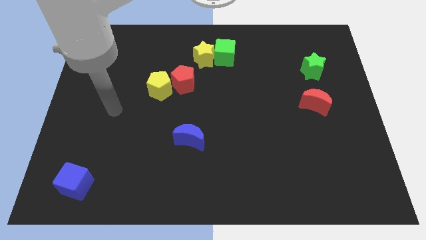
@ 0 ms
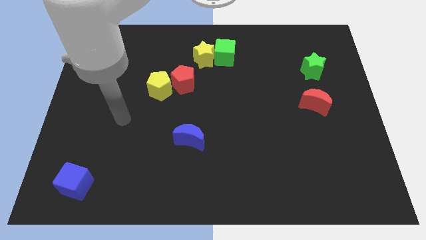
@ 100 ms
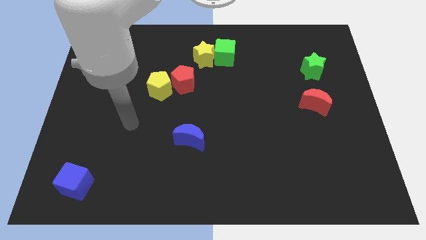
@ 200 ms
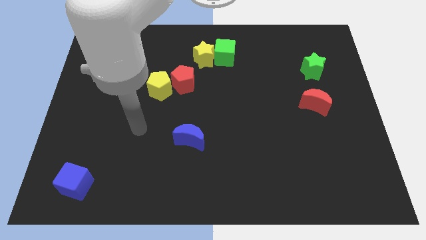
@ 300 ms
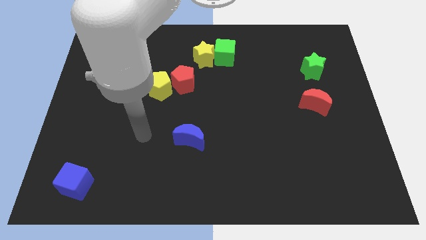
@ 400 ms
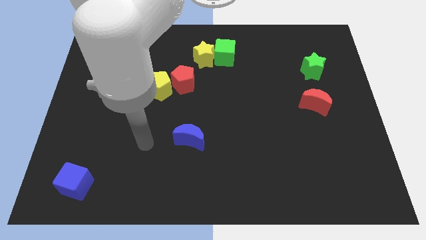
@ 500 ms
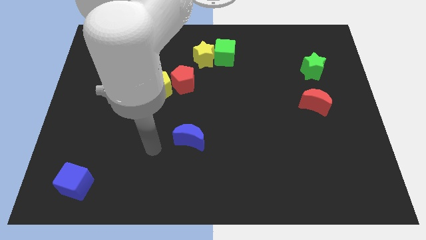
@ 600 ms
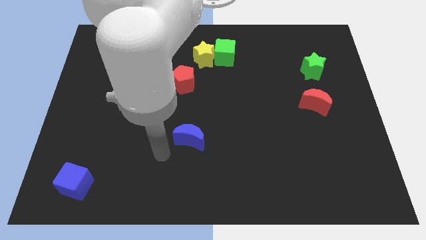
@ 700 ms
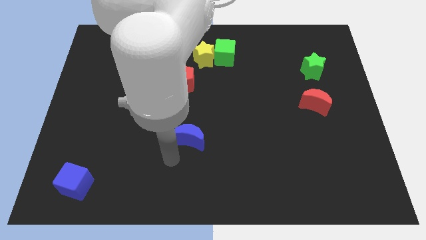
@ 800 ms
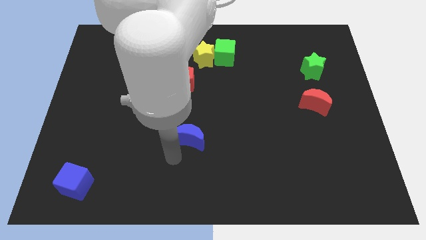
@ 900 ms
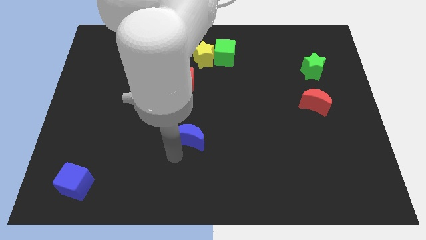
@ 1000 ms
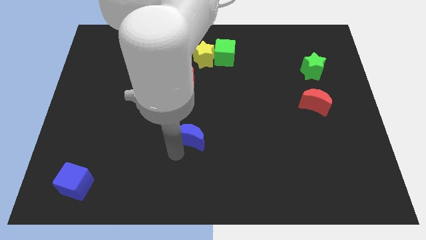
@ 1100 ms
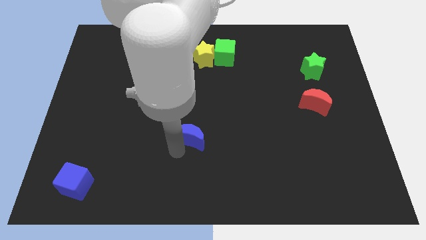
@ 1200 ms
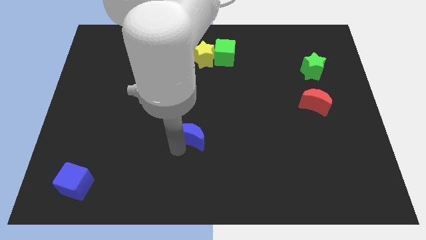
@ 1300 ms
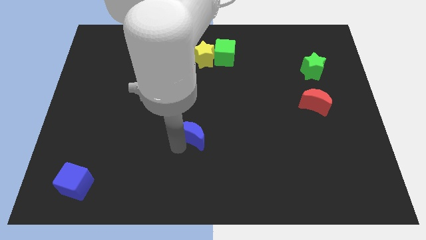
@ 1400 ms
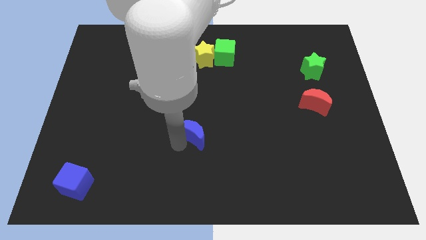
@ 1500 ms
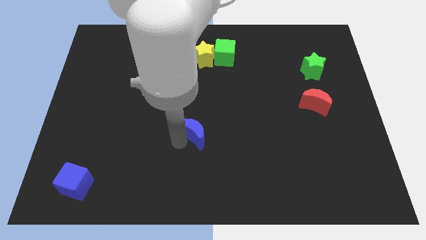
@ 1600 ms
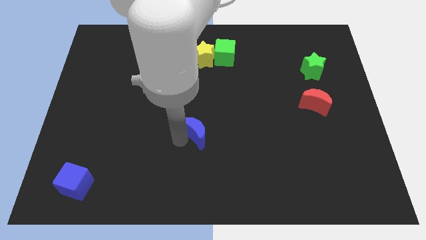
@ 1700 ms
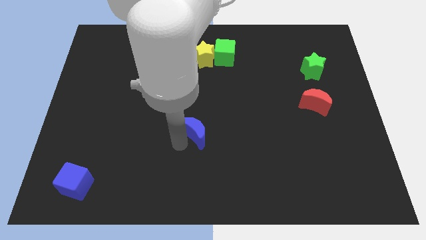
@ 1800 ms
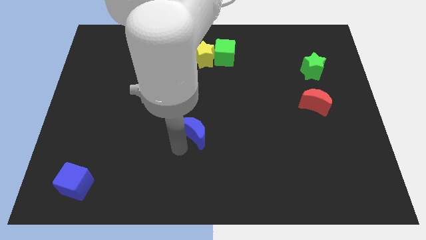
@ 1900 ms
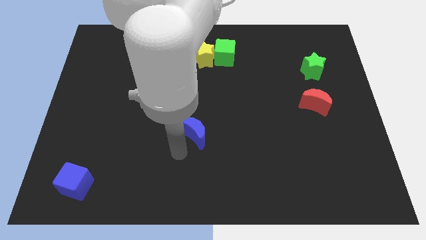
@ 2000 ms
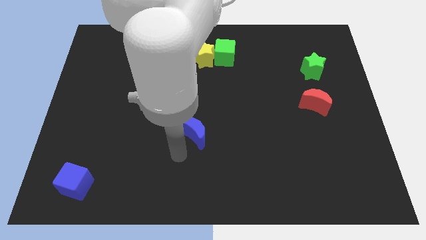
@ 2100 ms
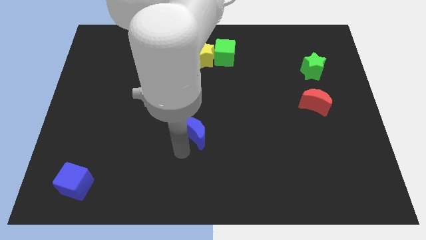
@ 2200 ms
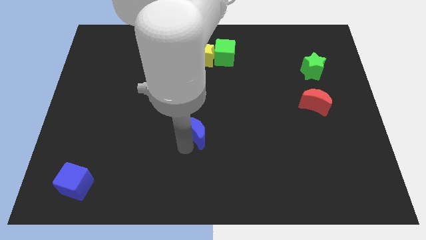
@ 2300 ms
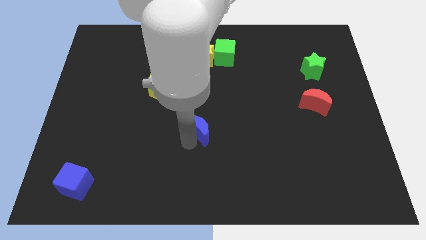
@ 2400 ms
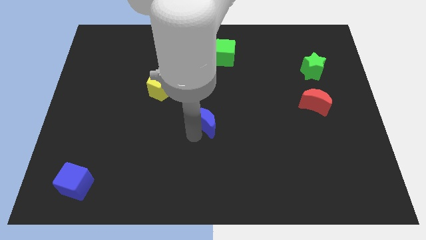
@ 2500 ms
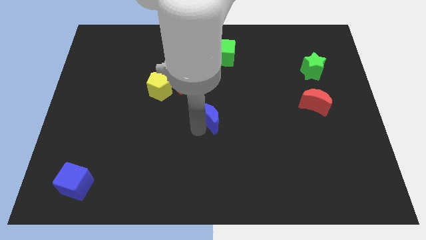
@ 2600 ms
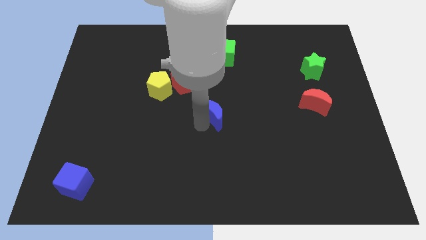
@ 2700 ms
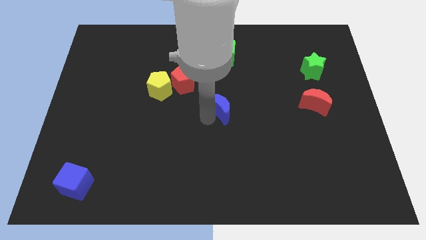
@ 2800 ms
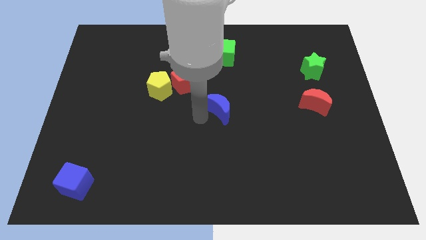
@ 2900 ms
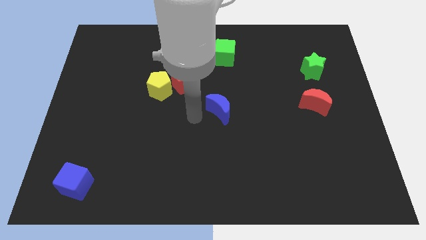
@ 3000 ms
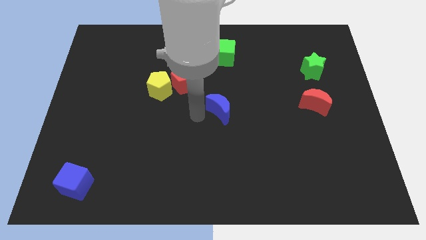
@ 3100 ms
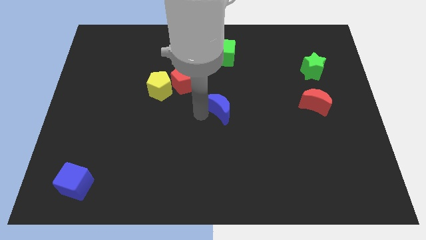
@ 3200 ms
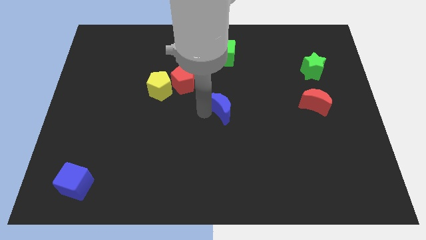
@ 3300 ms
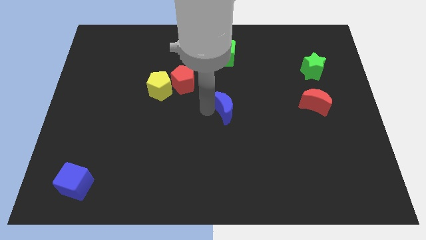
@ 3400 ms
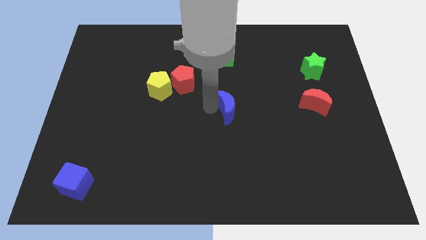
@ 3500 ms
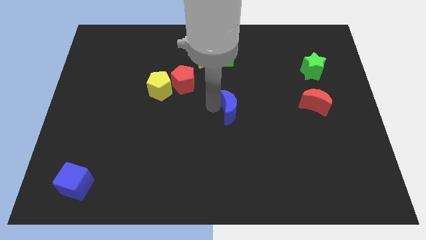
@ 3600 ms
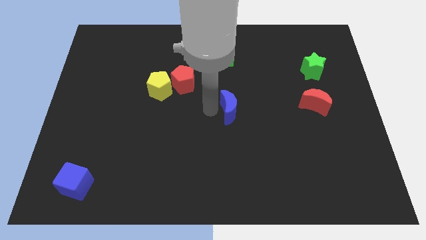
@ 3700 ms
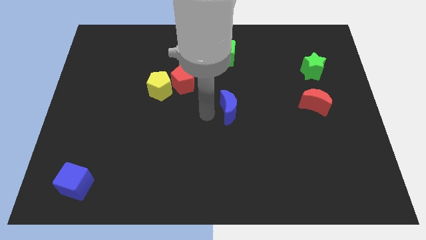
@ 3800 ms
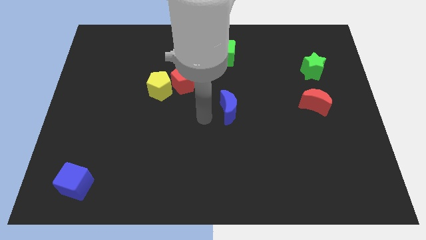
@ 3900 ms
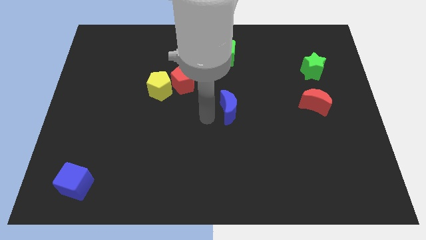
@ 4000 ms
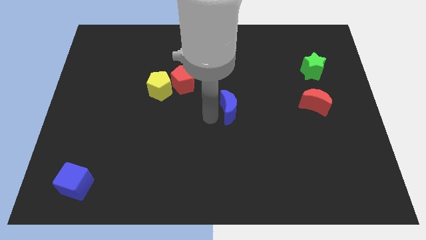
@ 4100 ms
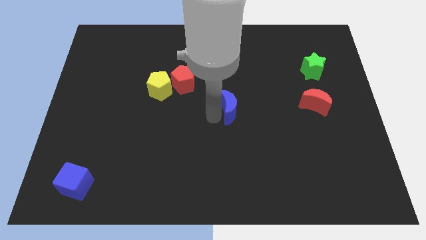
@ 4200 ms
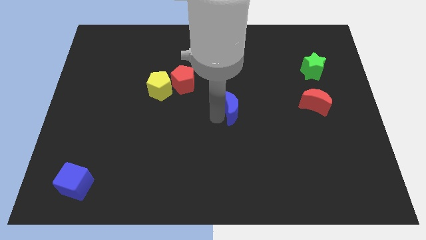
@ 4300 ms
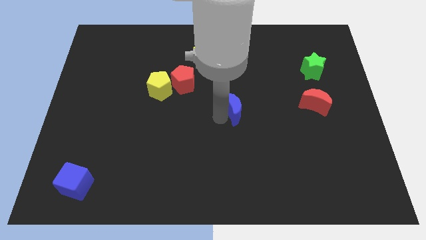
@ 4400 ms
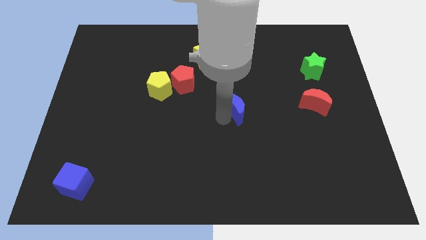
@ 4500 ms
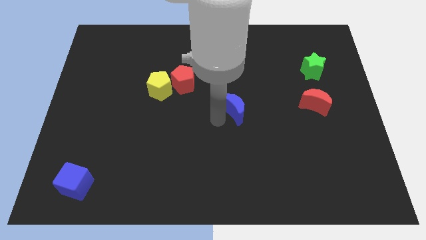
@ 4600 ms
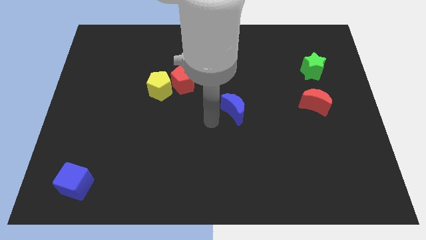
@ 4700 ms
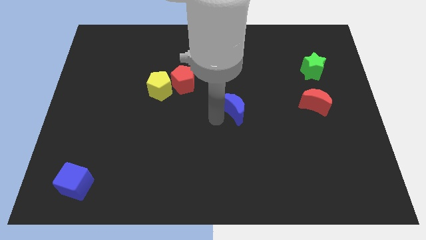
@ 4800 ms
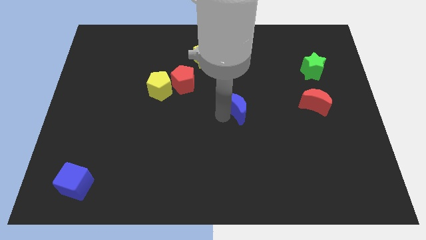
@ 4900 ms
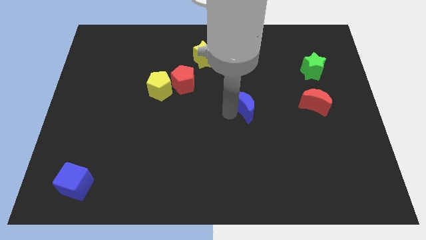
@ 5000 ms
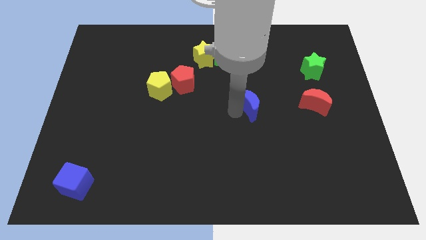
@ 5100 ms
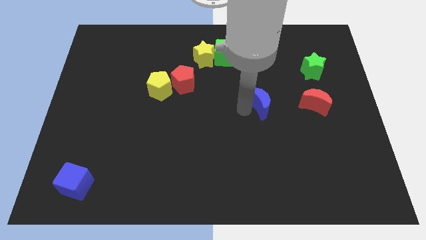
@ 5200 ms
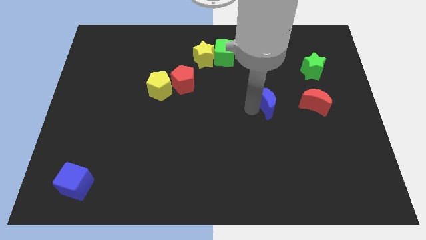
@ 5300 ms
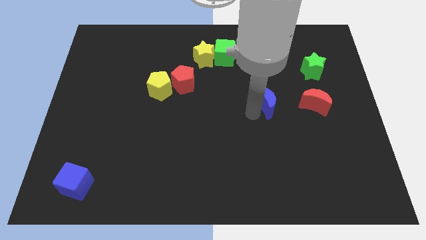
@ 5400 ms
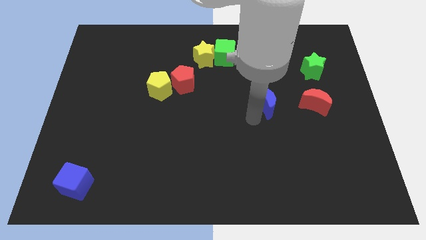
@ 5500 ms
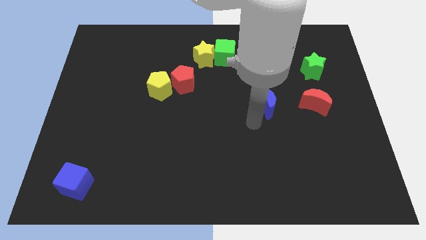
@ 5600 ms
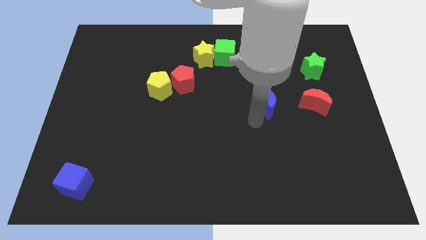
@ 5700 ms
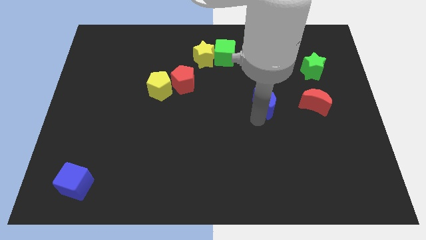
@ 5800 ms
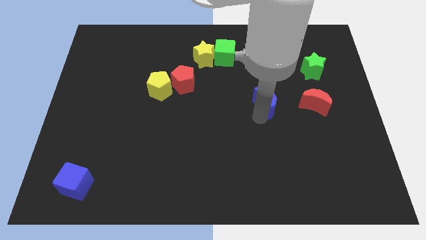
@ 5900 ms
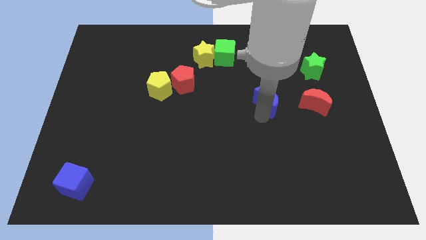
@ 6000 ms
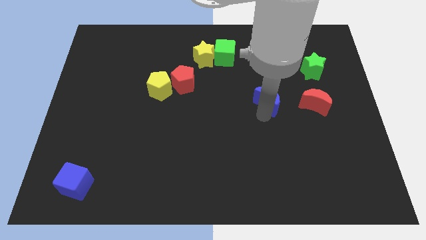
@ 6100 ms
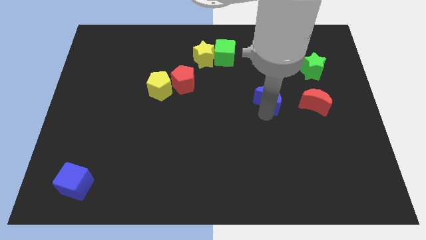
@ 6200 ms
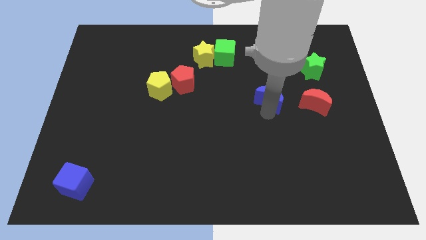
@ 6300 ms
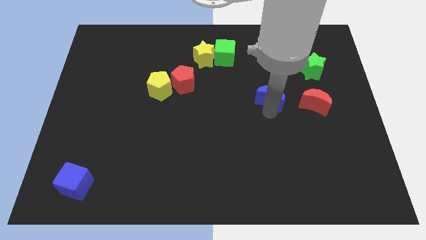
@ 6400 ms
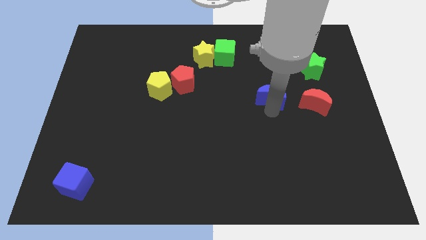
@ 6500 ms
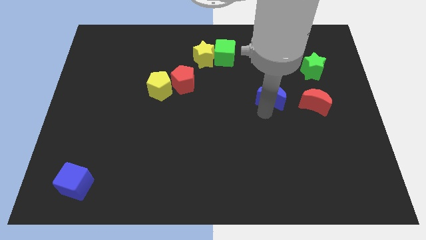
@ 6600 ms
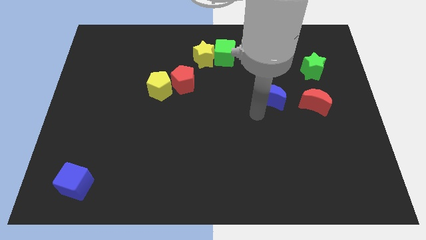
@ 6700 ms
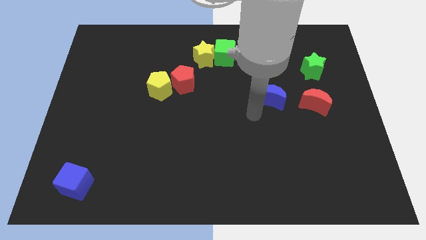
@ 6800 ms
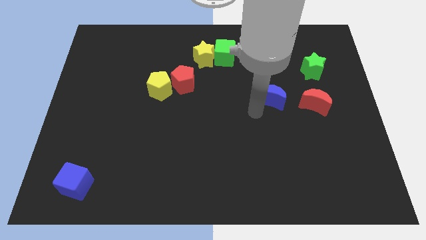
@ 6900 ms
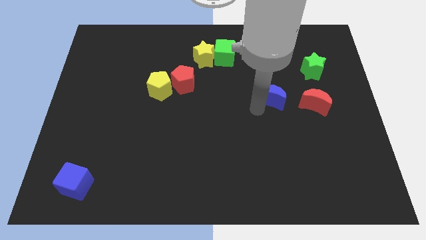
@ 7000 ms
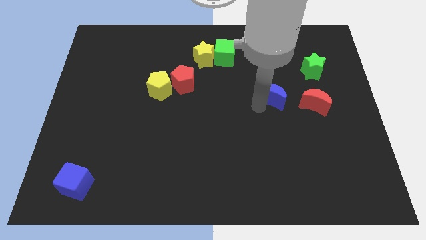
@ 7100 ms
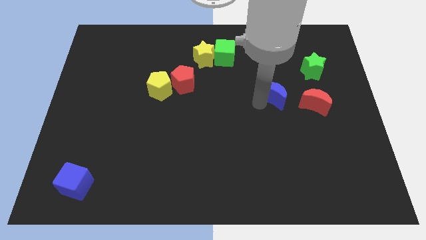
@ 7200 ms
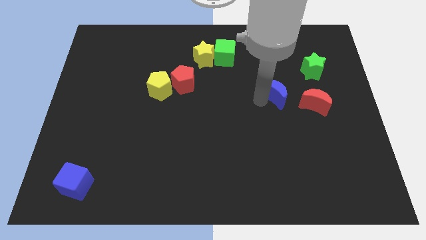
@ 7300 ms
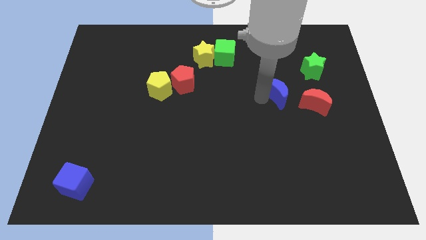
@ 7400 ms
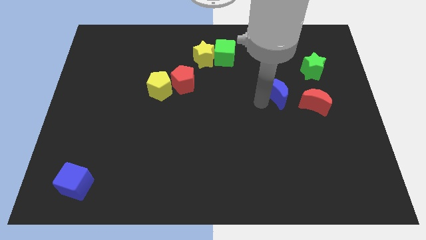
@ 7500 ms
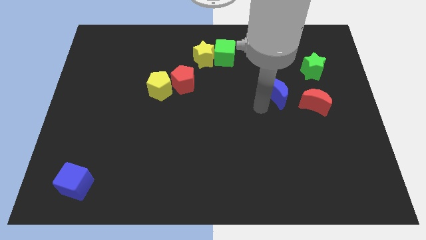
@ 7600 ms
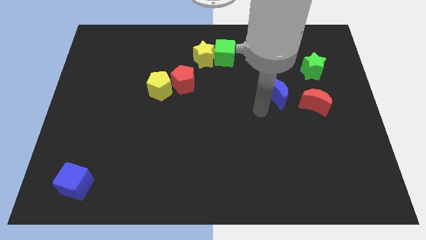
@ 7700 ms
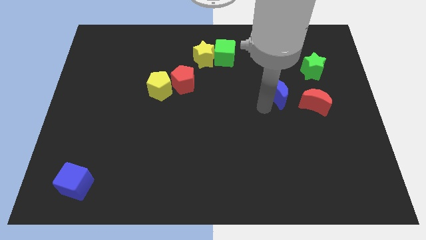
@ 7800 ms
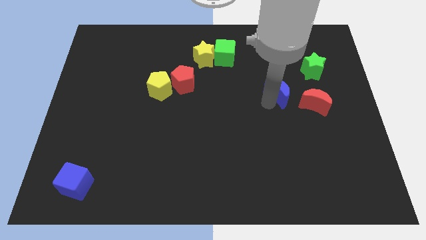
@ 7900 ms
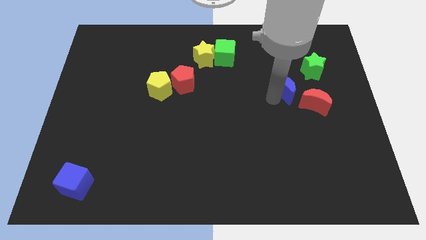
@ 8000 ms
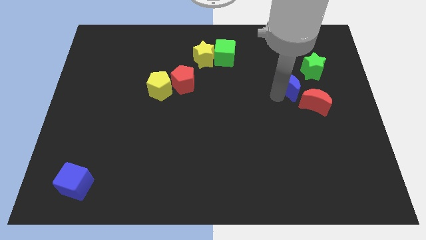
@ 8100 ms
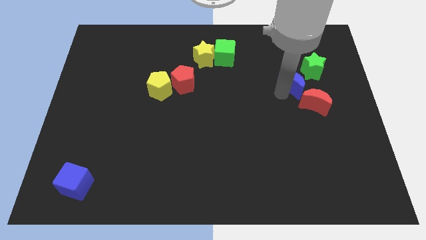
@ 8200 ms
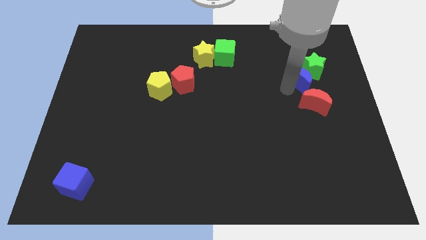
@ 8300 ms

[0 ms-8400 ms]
push the blue moon next to the green star
